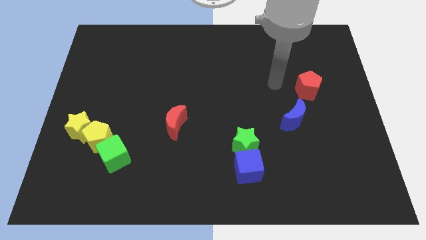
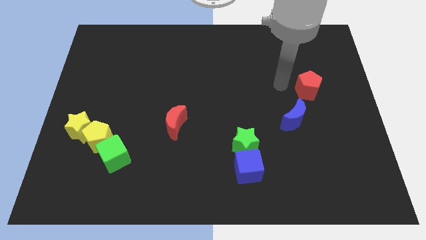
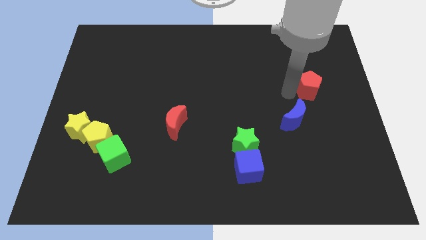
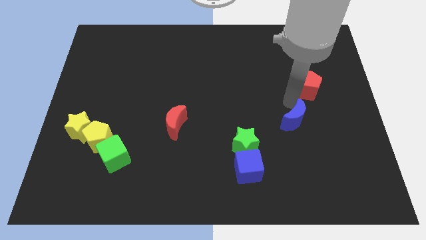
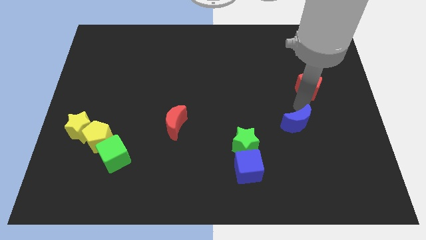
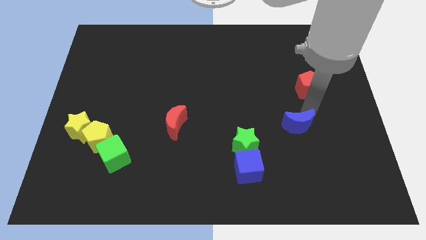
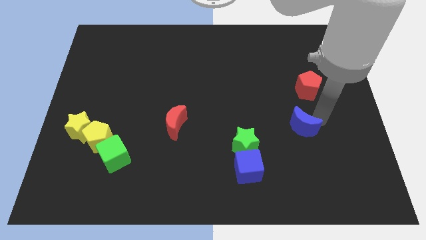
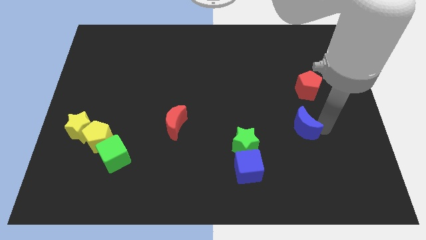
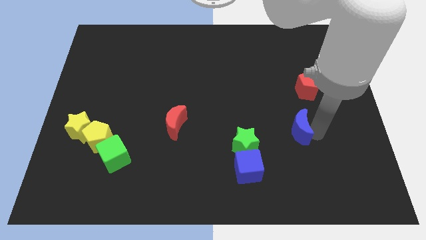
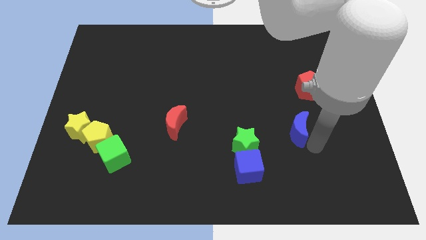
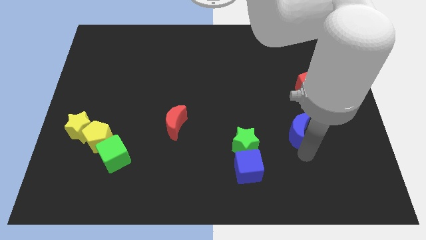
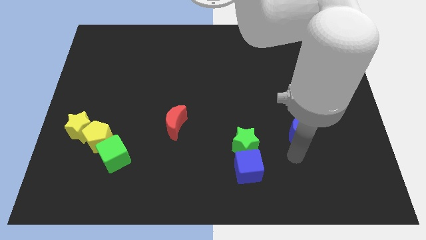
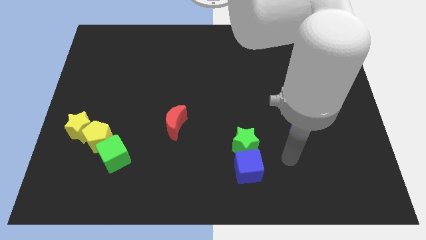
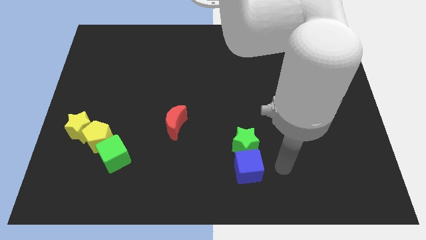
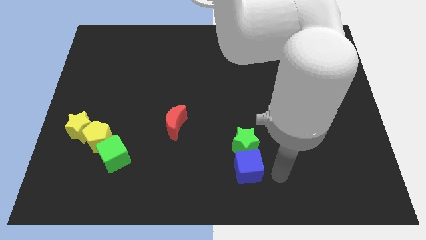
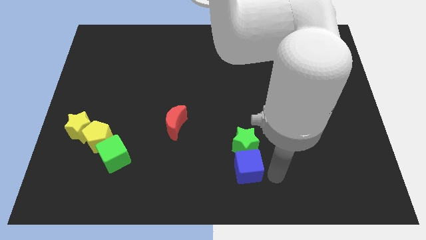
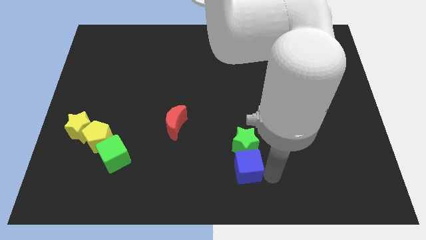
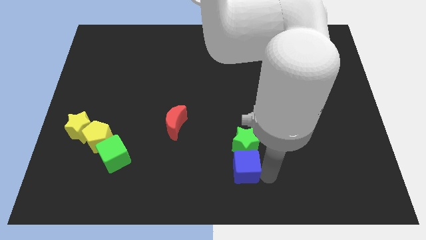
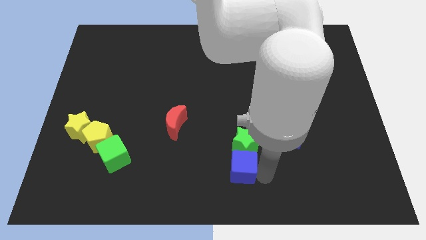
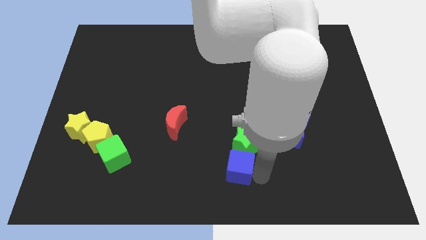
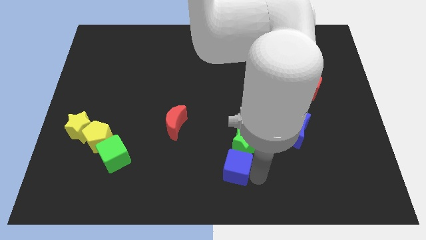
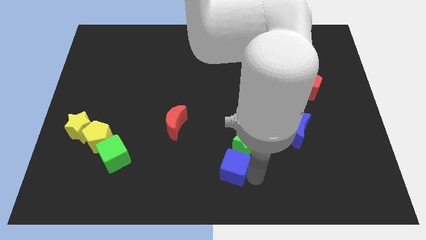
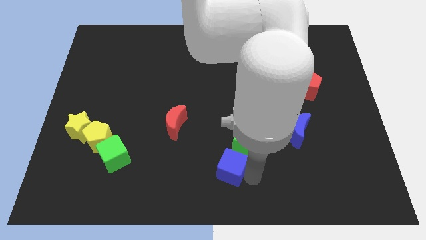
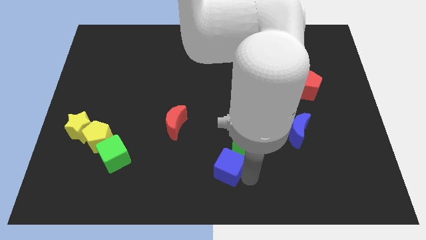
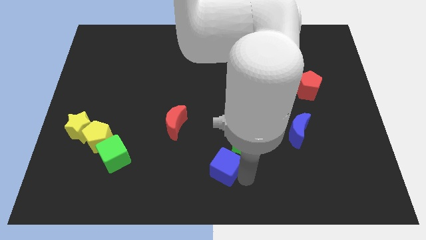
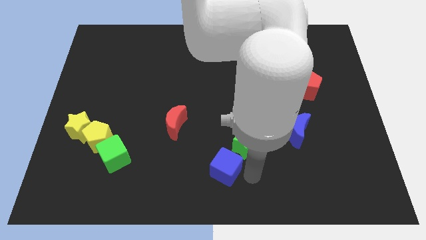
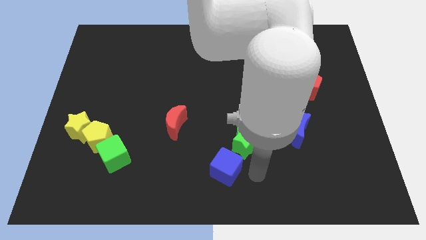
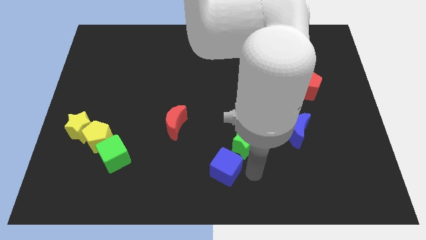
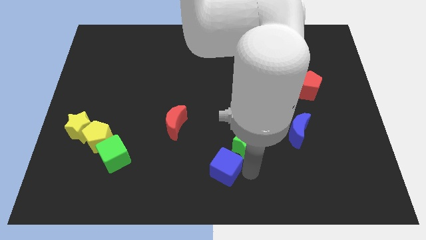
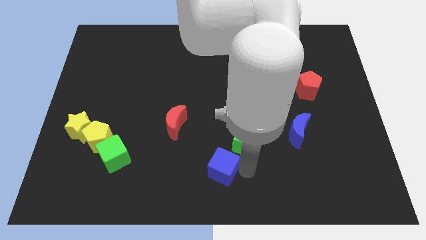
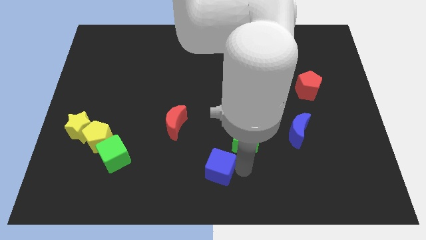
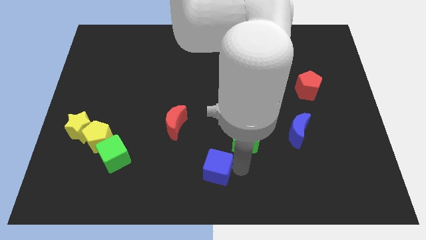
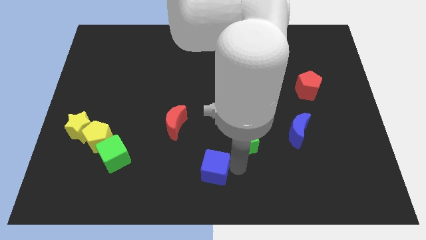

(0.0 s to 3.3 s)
slightly slide the blue cube left

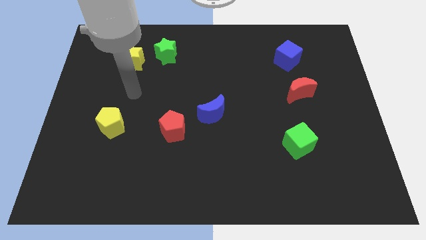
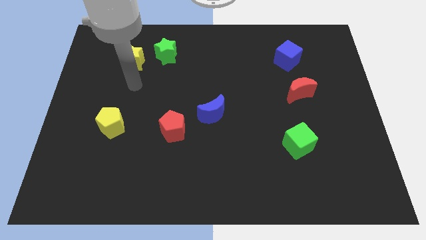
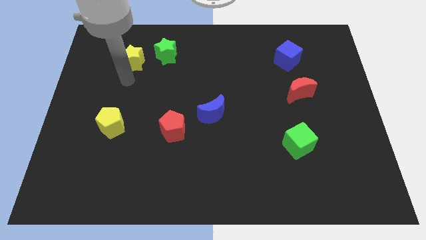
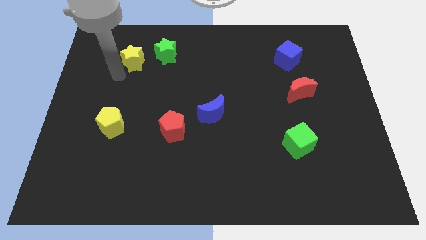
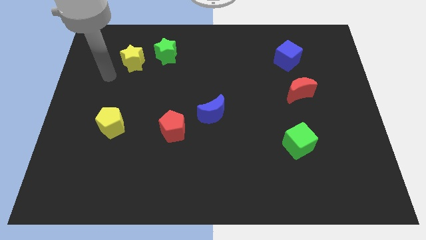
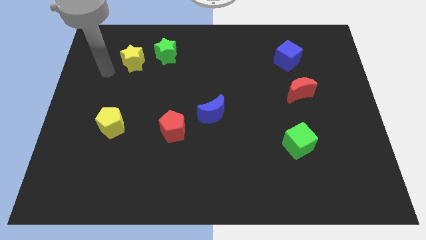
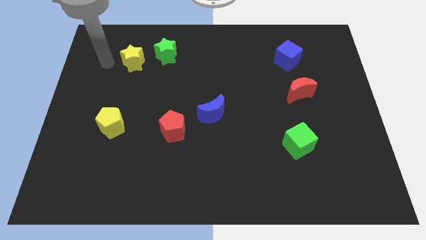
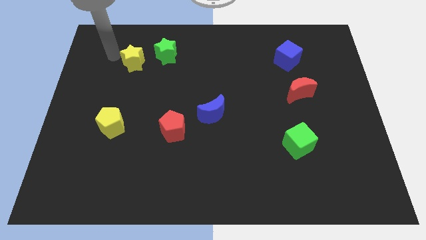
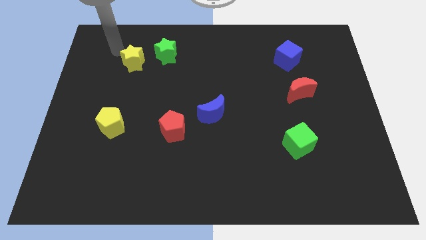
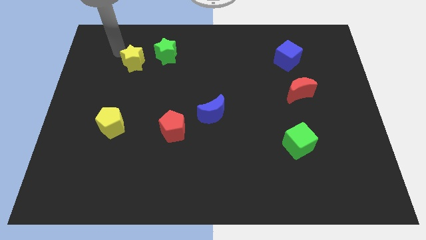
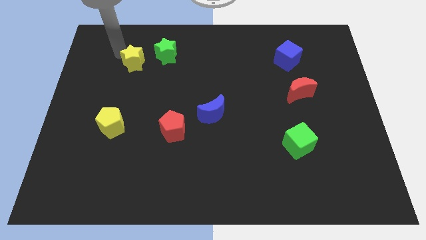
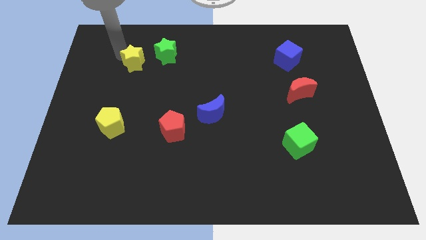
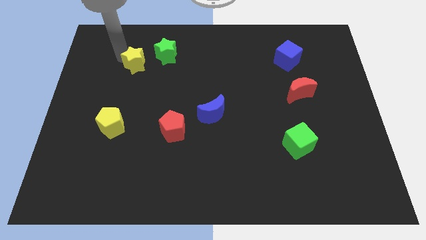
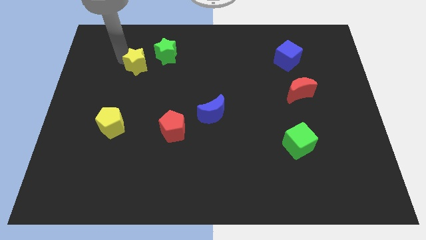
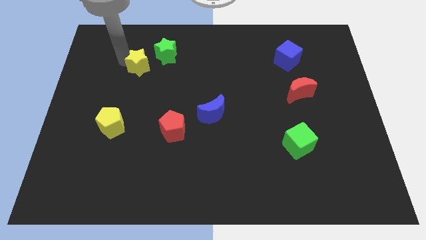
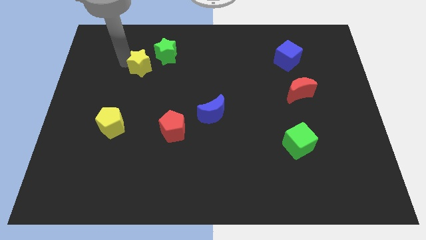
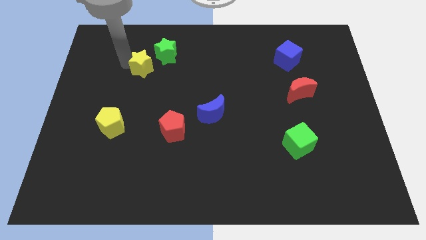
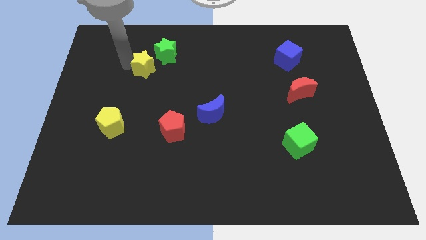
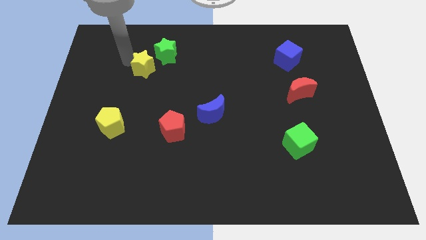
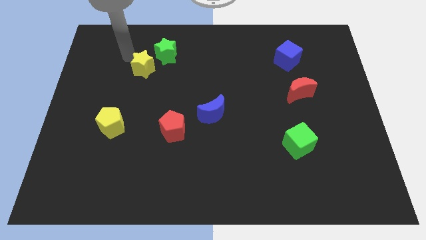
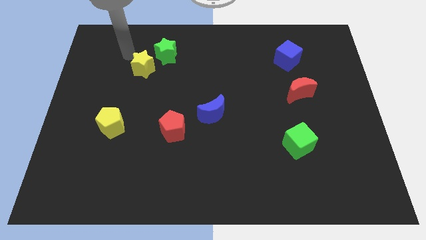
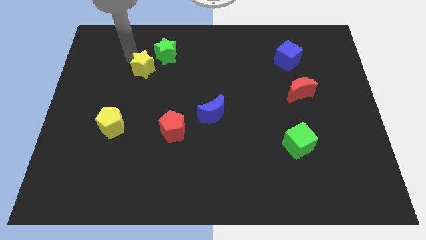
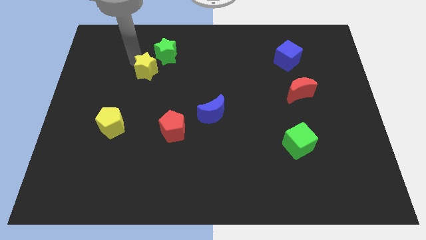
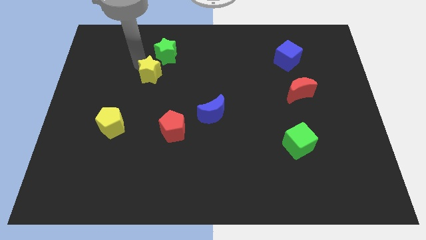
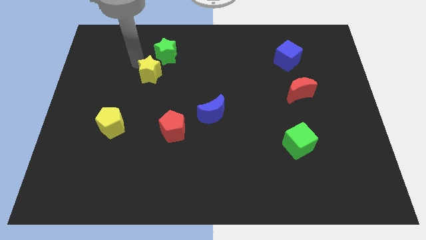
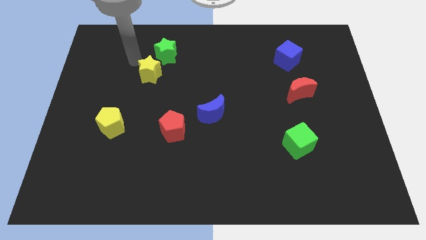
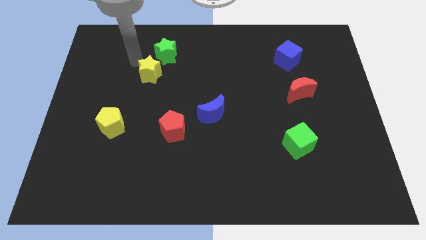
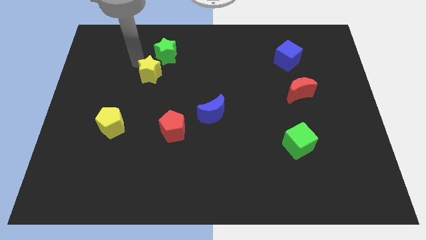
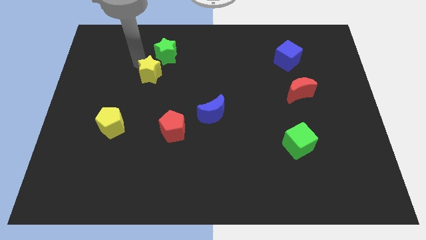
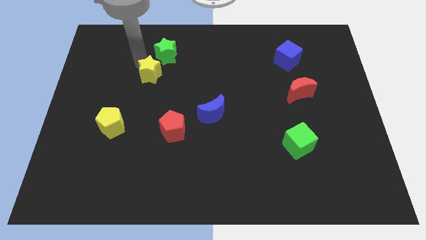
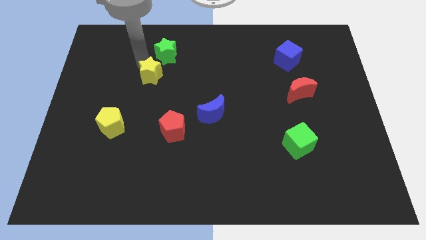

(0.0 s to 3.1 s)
move the yellow star diagonally down and to the right slightly

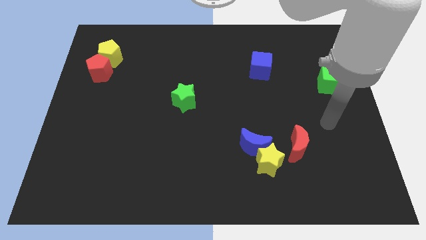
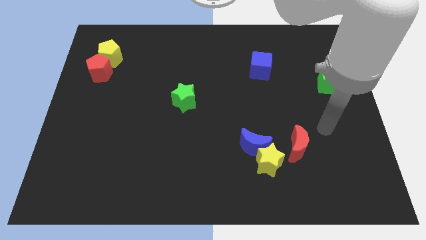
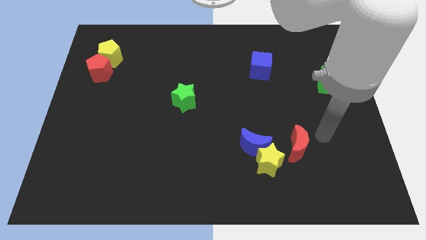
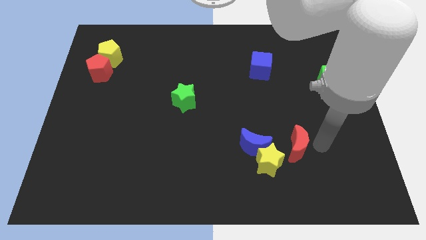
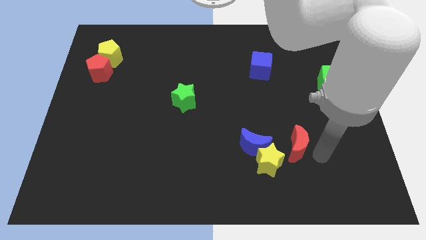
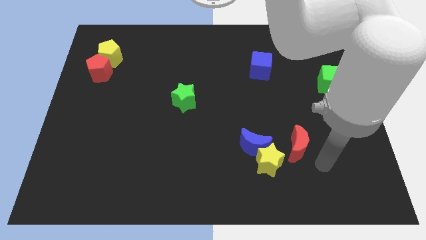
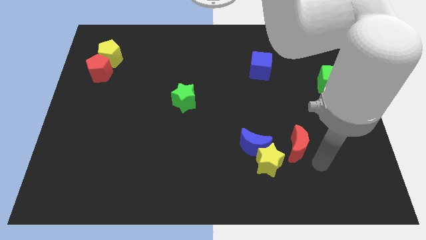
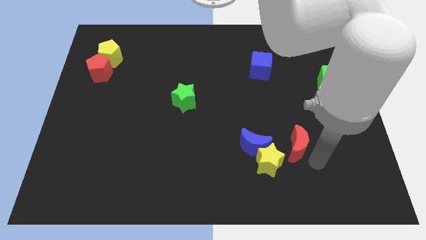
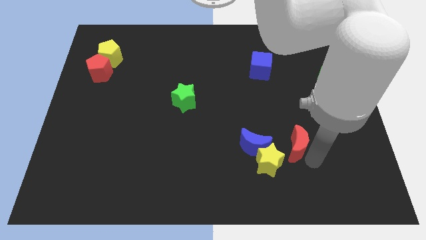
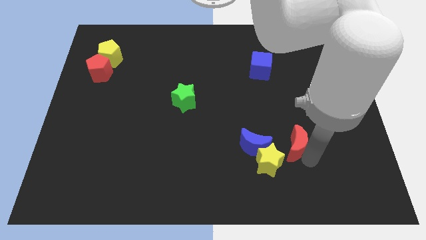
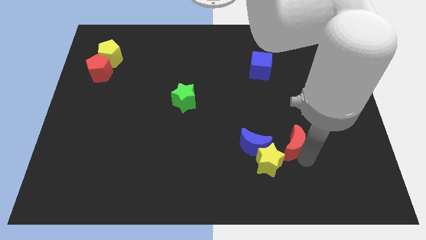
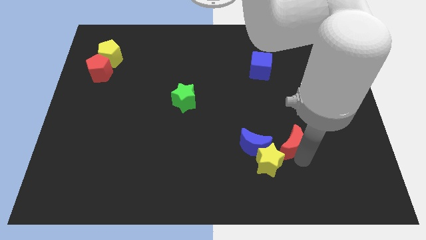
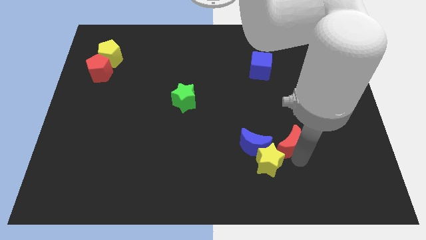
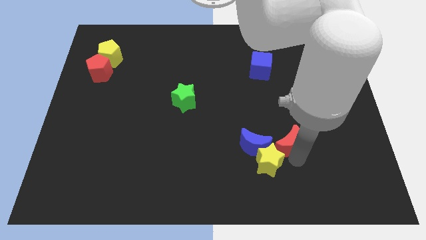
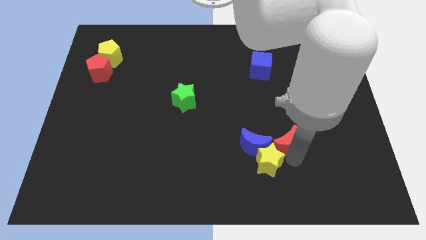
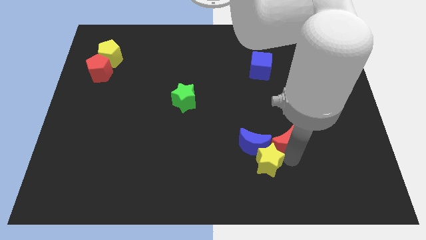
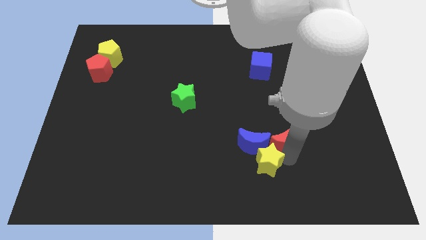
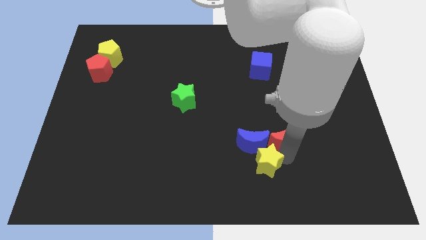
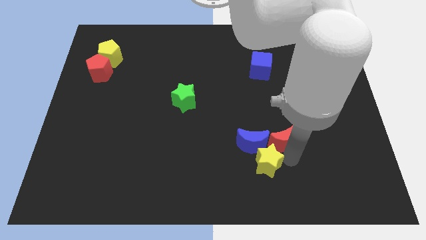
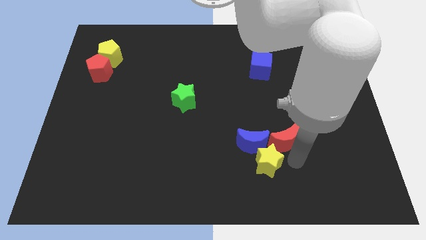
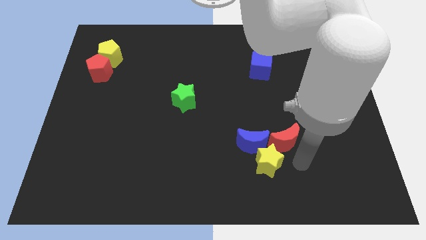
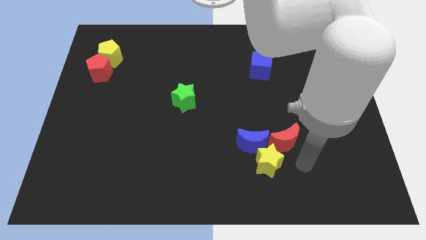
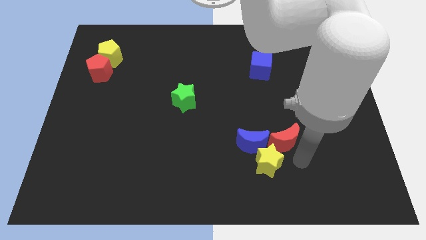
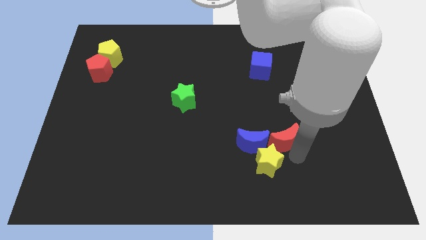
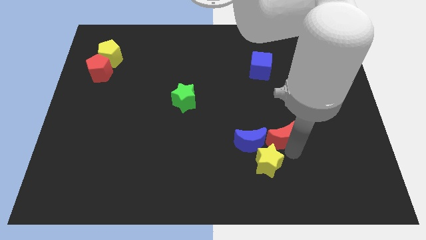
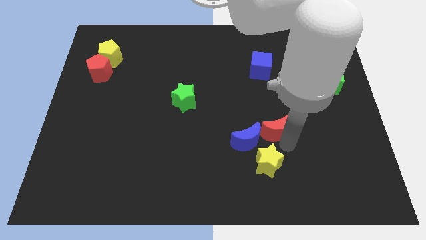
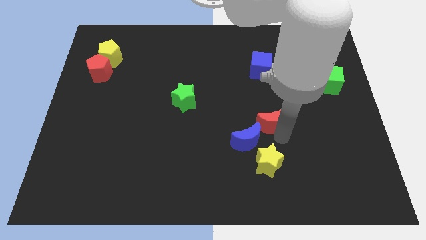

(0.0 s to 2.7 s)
slightly push the red moon upwards and left diagonally
